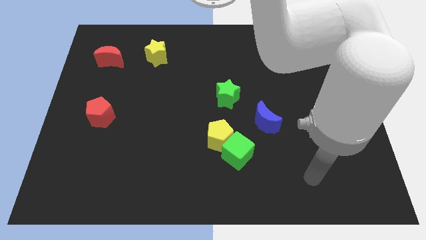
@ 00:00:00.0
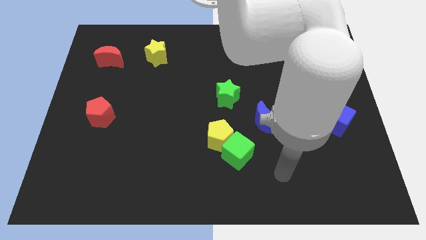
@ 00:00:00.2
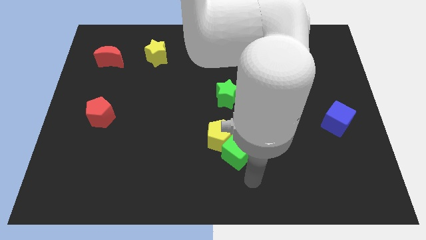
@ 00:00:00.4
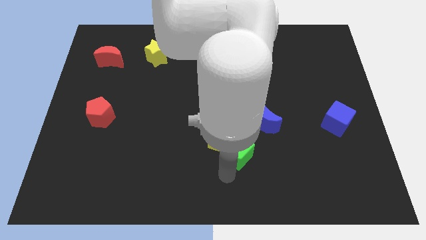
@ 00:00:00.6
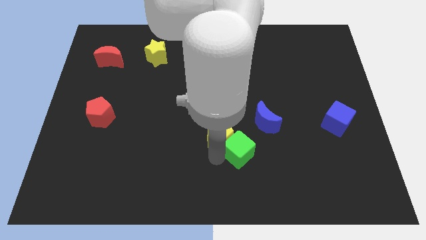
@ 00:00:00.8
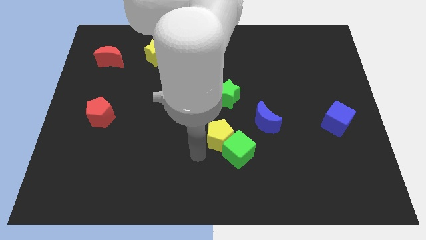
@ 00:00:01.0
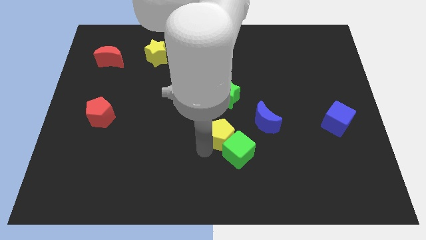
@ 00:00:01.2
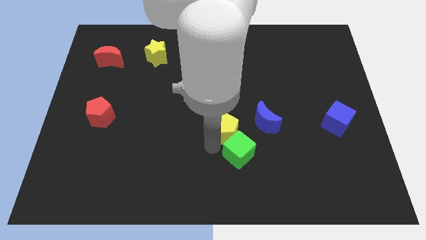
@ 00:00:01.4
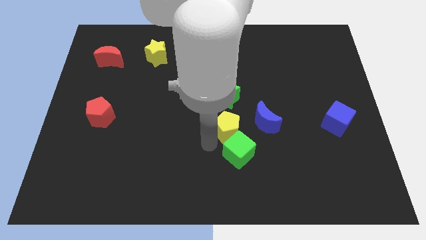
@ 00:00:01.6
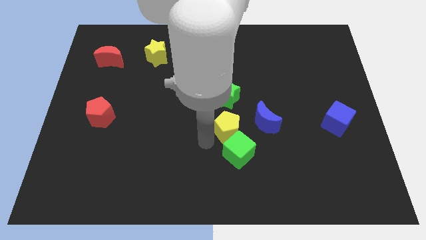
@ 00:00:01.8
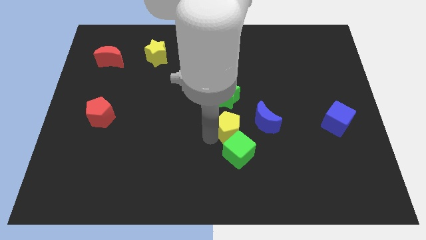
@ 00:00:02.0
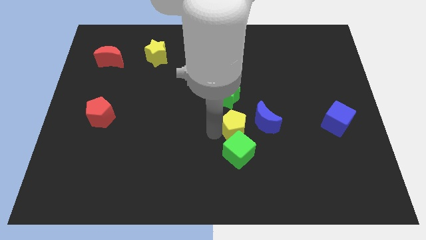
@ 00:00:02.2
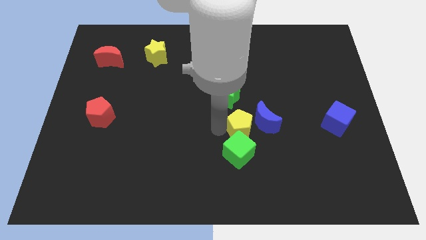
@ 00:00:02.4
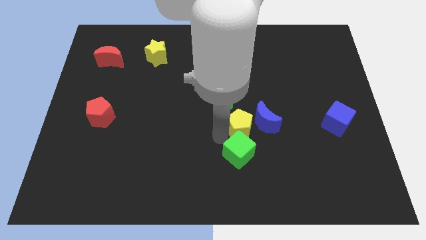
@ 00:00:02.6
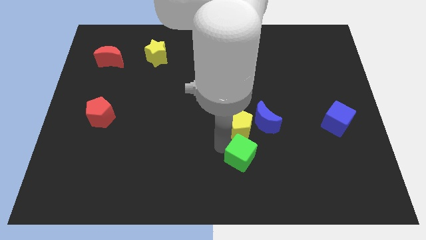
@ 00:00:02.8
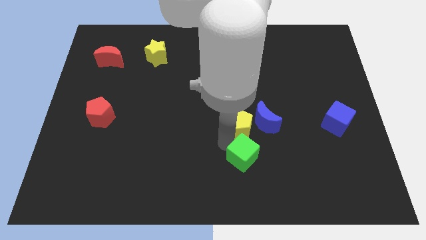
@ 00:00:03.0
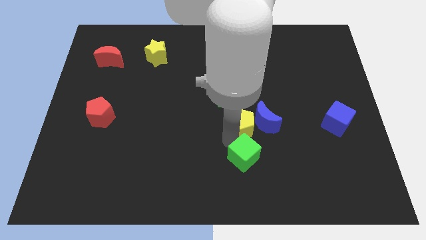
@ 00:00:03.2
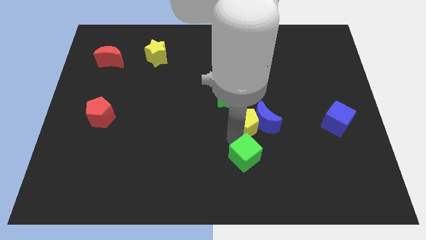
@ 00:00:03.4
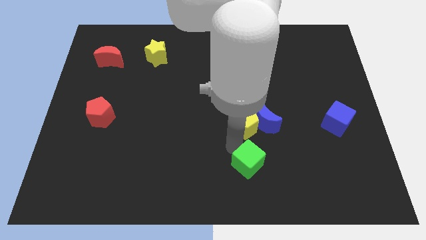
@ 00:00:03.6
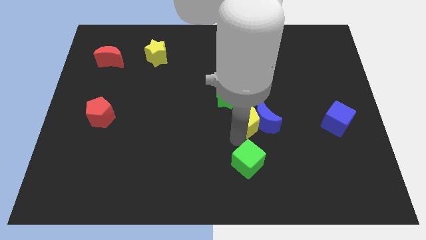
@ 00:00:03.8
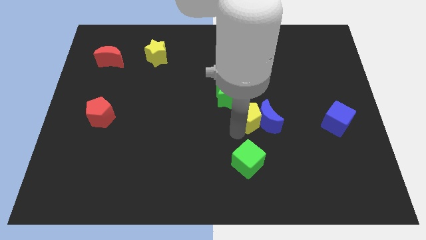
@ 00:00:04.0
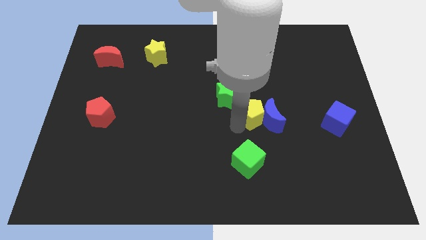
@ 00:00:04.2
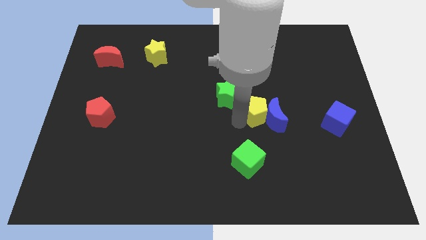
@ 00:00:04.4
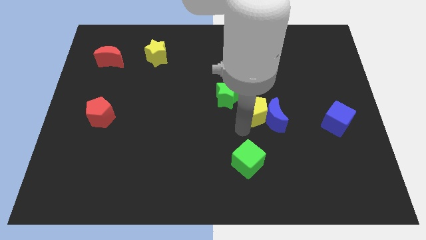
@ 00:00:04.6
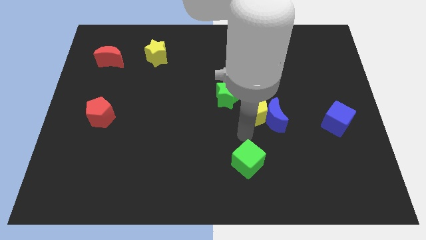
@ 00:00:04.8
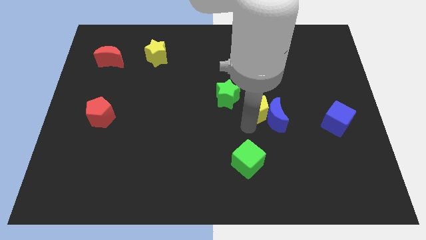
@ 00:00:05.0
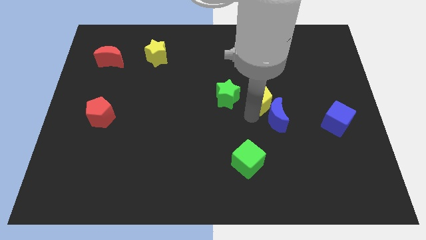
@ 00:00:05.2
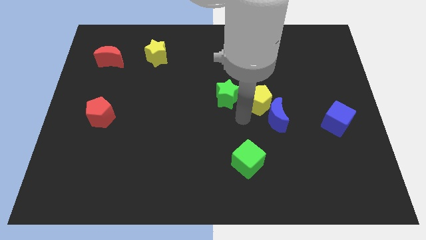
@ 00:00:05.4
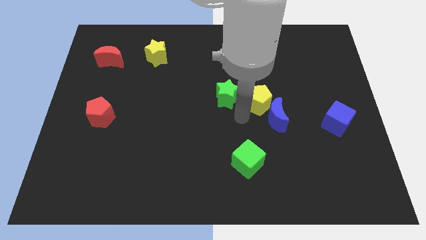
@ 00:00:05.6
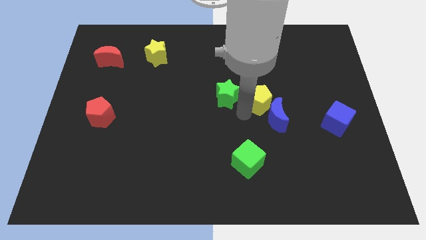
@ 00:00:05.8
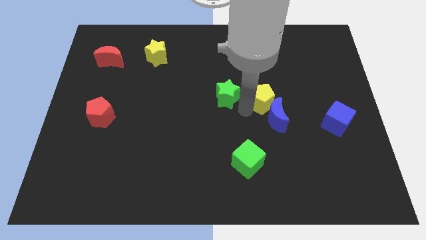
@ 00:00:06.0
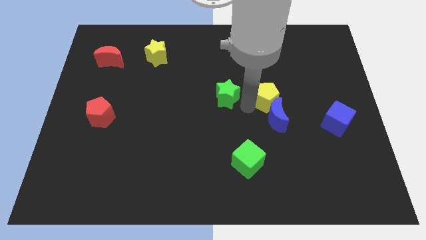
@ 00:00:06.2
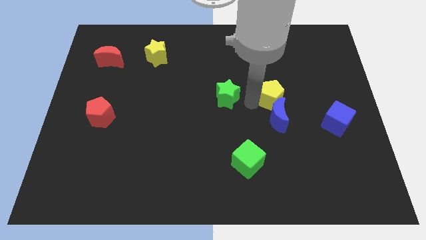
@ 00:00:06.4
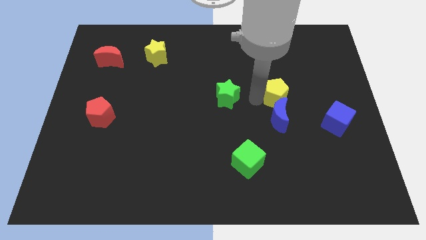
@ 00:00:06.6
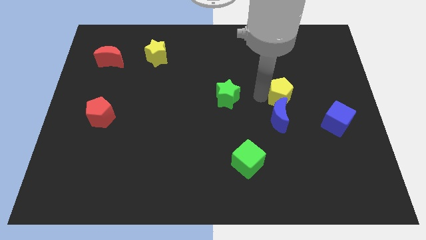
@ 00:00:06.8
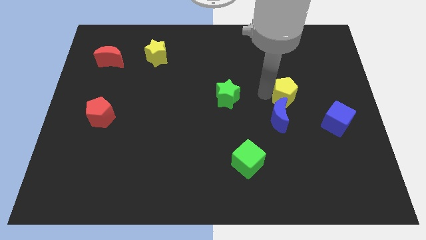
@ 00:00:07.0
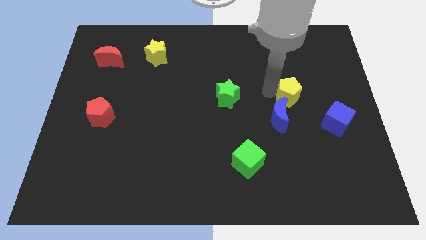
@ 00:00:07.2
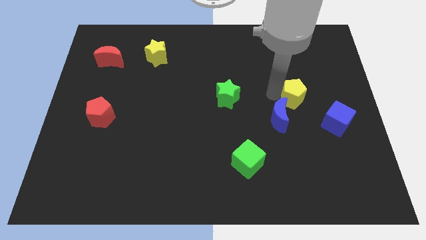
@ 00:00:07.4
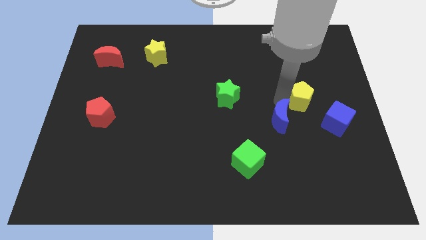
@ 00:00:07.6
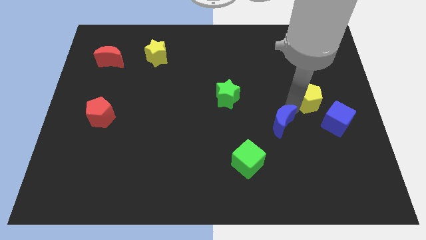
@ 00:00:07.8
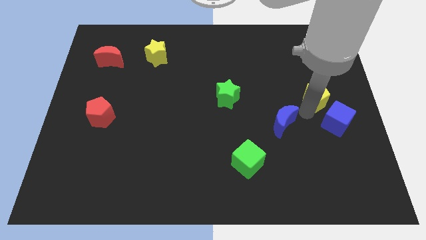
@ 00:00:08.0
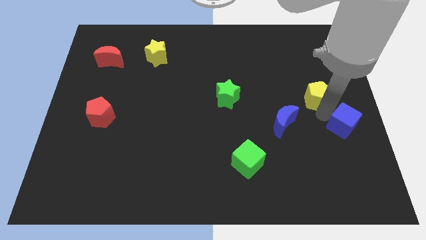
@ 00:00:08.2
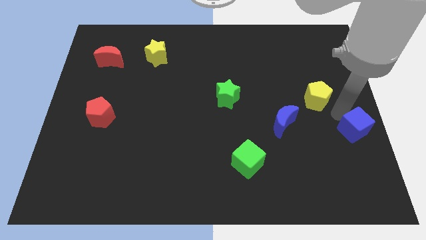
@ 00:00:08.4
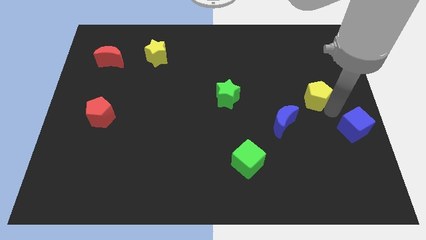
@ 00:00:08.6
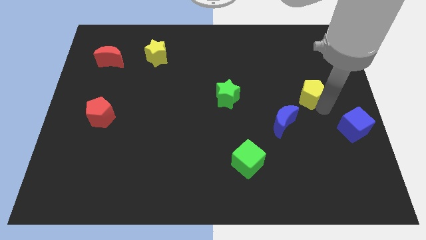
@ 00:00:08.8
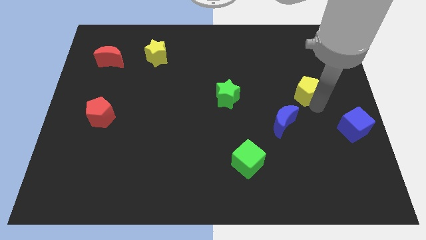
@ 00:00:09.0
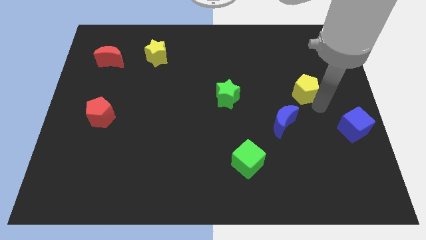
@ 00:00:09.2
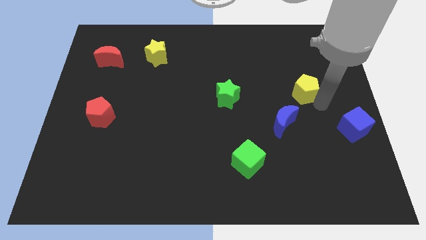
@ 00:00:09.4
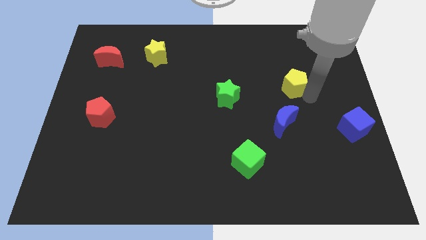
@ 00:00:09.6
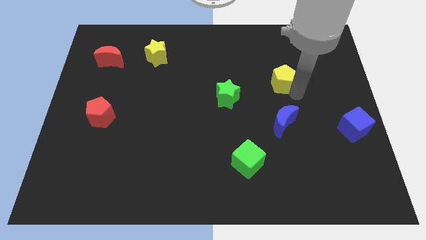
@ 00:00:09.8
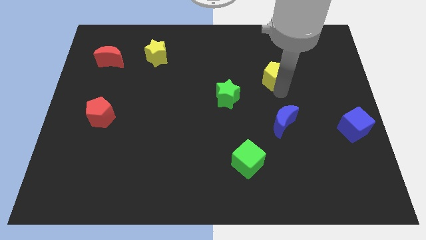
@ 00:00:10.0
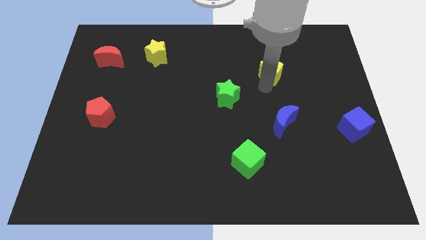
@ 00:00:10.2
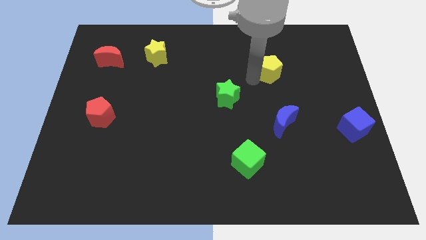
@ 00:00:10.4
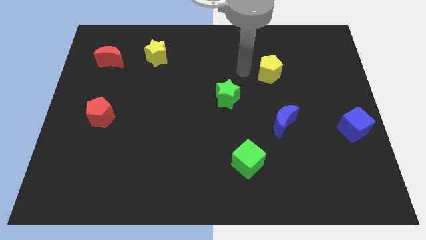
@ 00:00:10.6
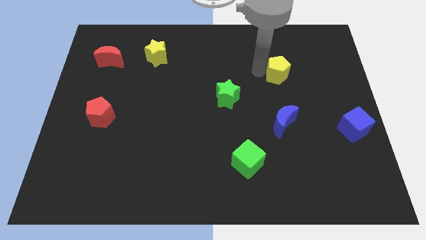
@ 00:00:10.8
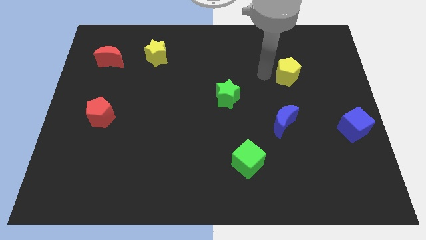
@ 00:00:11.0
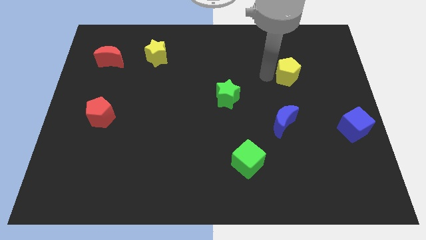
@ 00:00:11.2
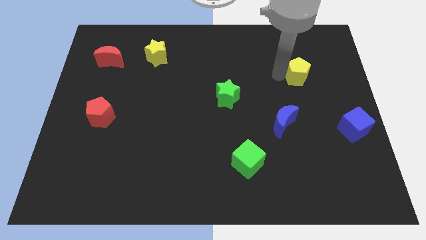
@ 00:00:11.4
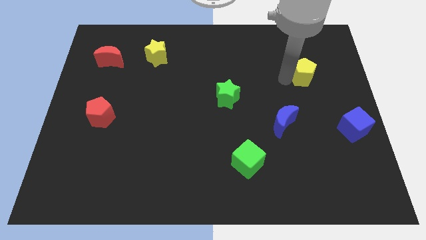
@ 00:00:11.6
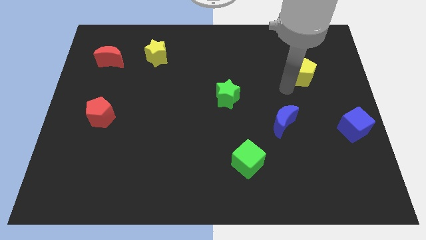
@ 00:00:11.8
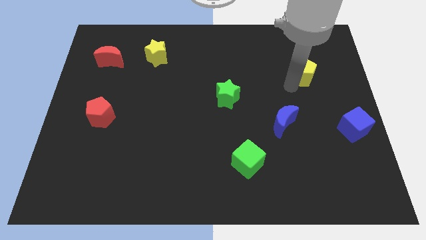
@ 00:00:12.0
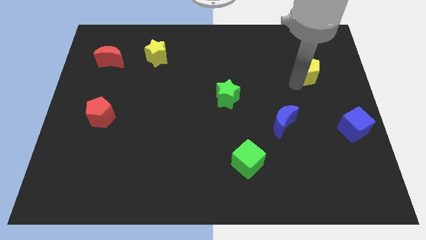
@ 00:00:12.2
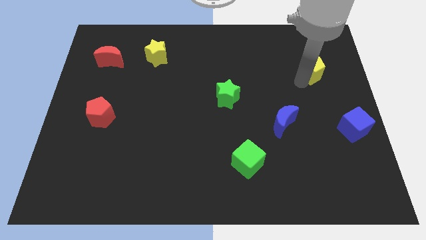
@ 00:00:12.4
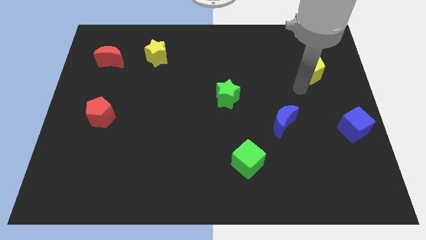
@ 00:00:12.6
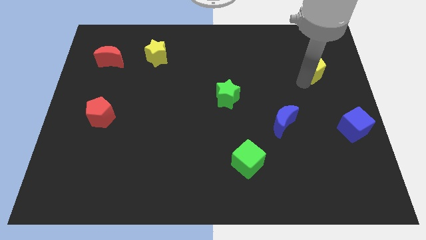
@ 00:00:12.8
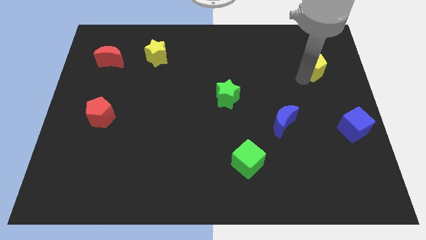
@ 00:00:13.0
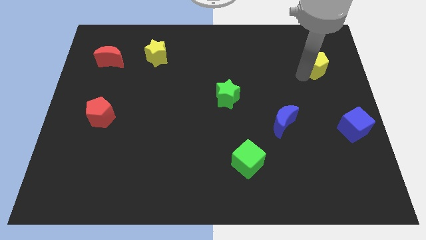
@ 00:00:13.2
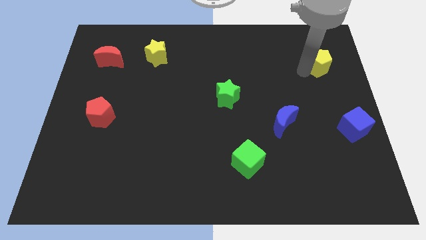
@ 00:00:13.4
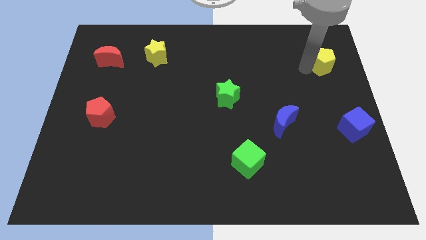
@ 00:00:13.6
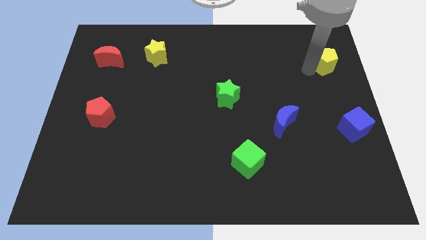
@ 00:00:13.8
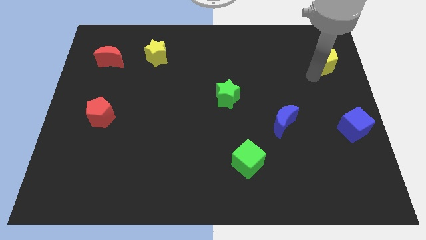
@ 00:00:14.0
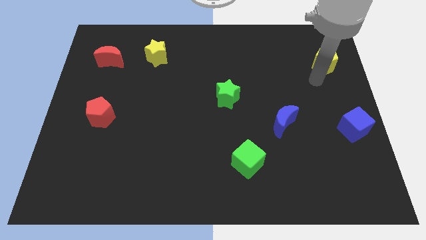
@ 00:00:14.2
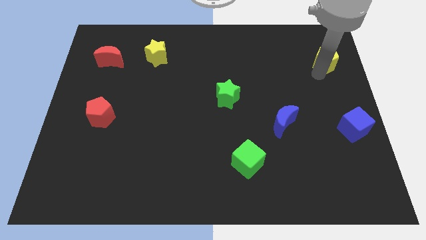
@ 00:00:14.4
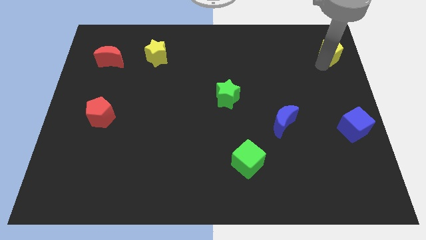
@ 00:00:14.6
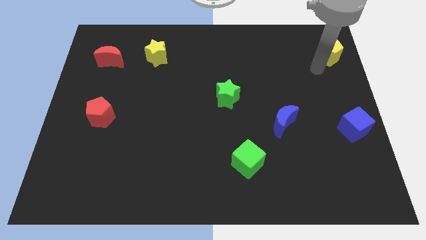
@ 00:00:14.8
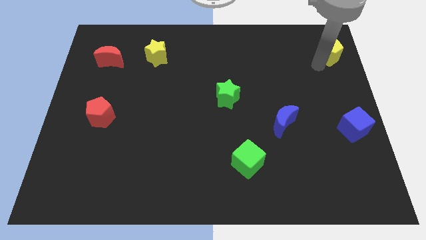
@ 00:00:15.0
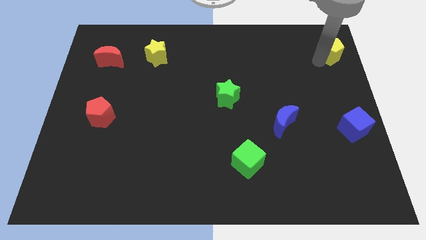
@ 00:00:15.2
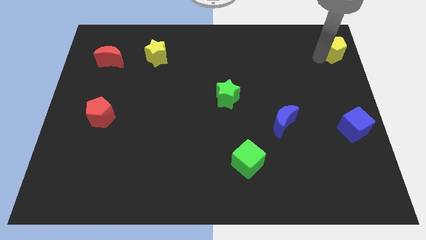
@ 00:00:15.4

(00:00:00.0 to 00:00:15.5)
push the yellow pentagon to the top right corner
